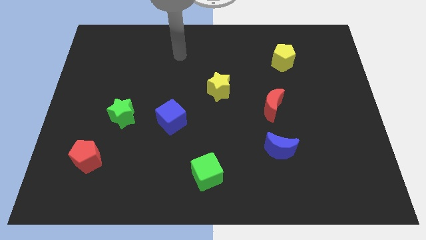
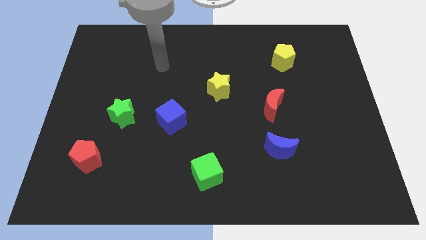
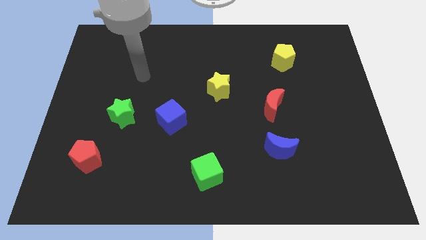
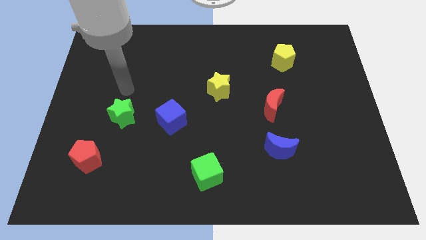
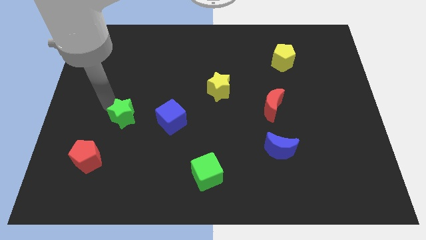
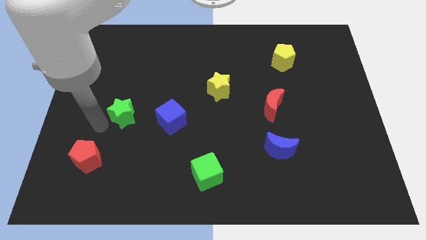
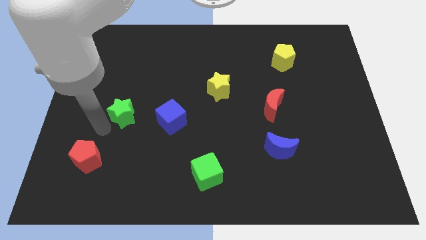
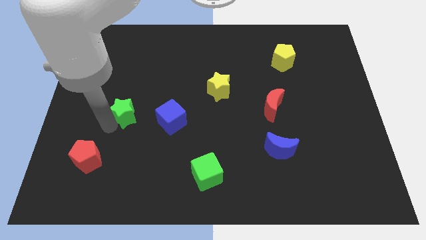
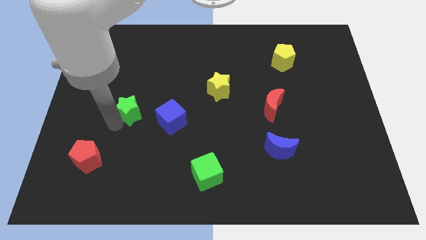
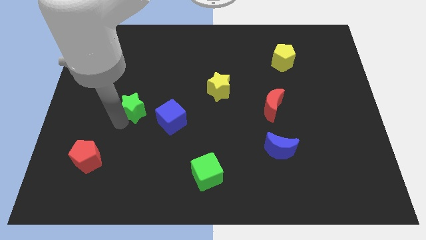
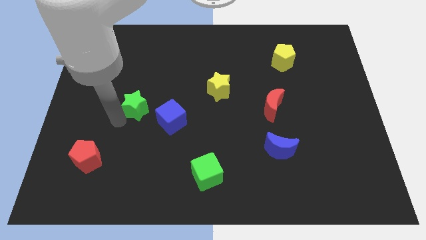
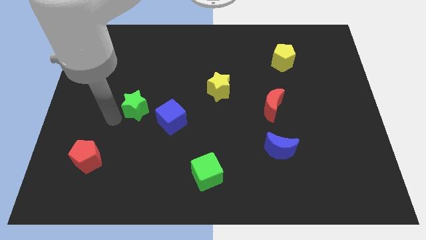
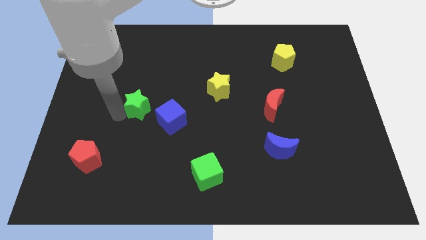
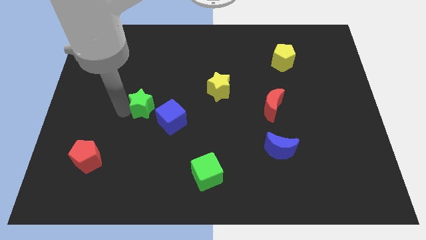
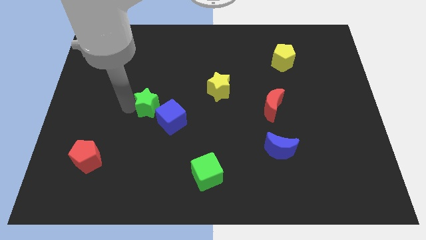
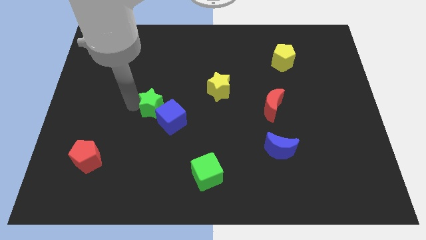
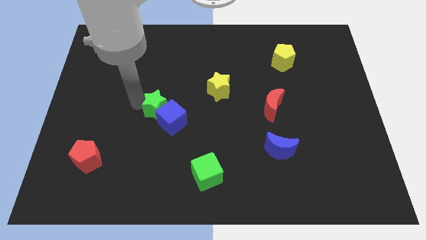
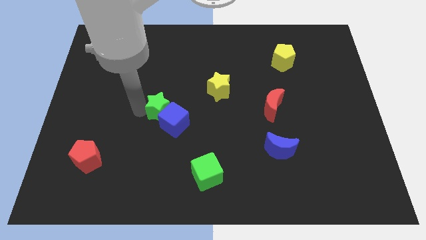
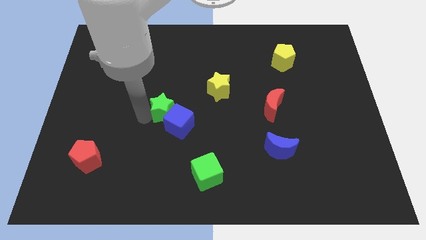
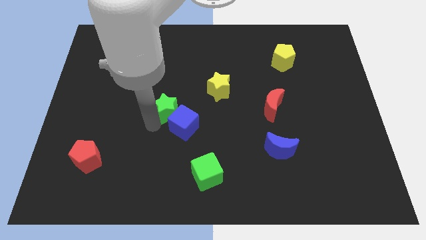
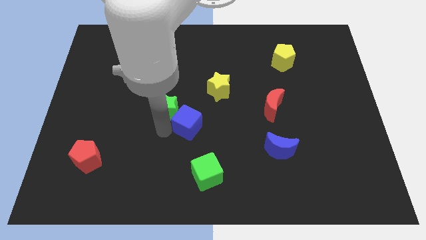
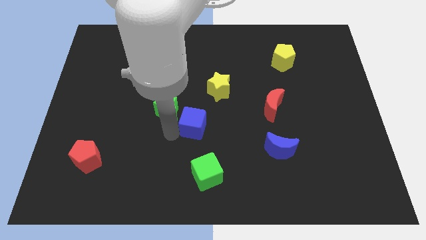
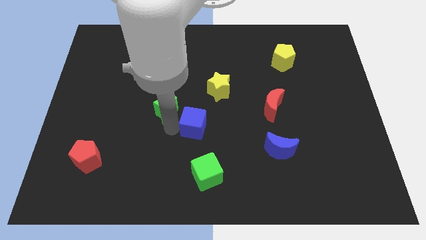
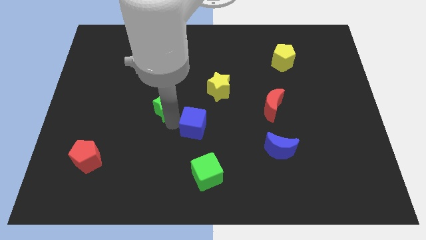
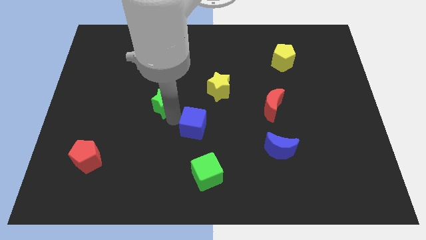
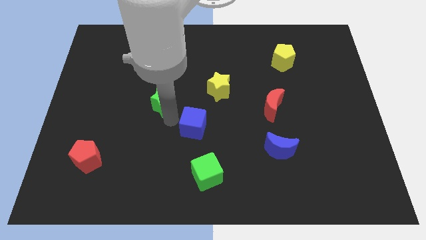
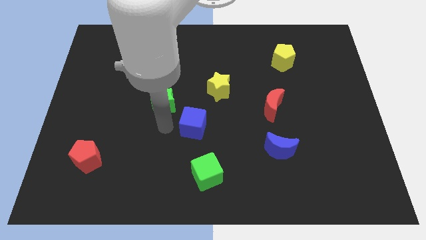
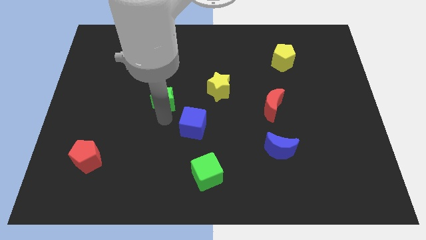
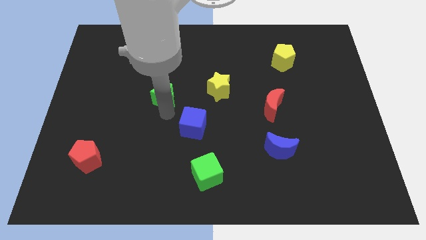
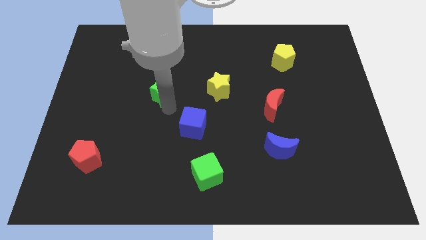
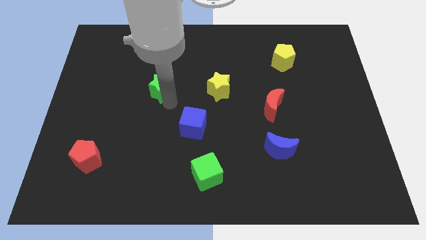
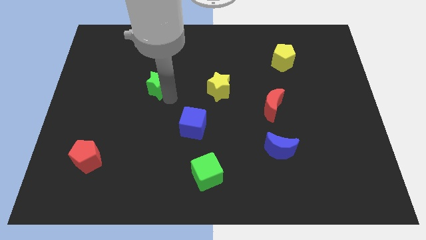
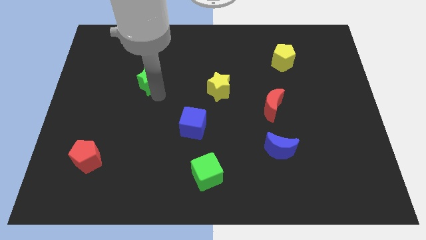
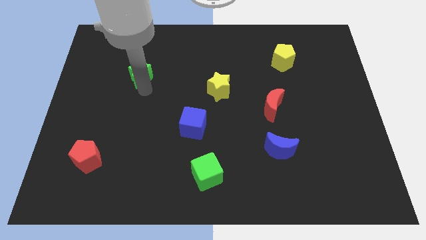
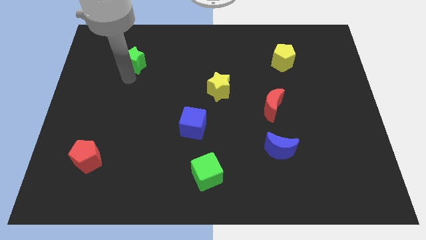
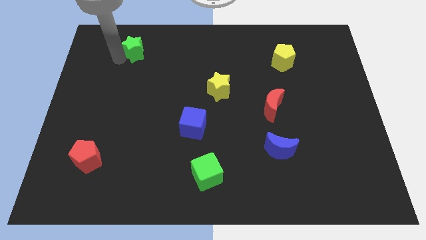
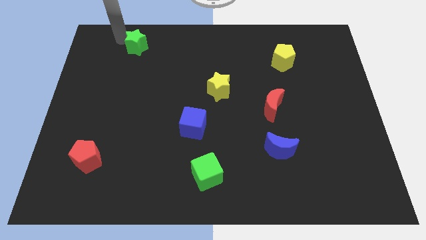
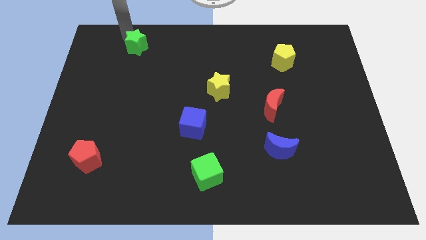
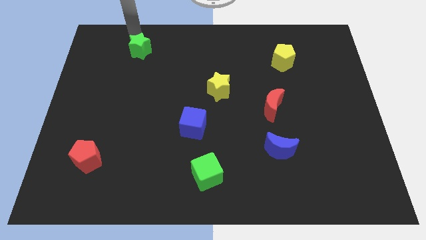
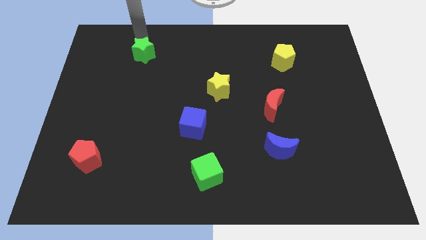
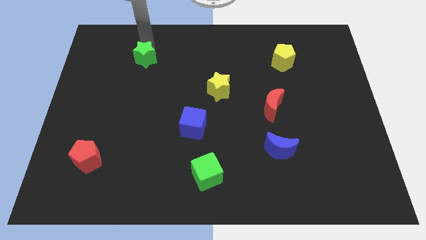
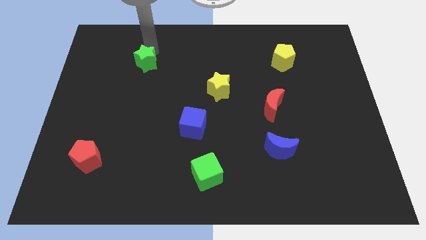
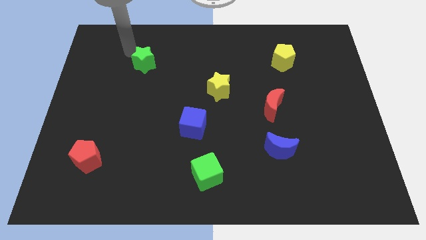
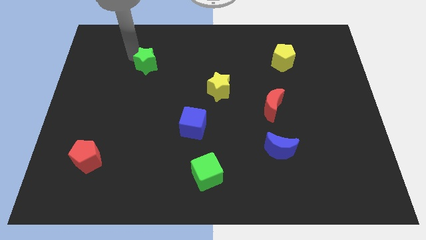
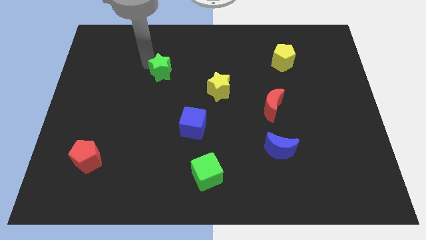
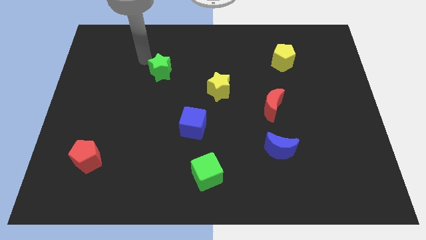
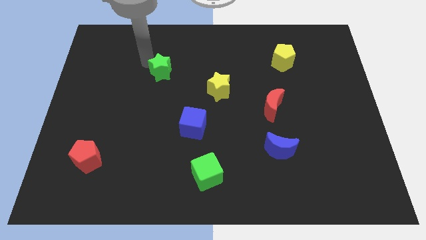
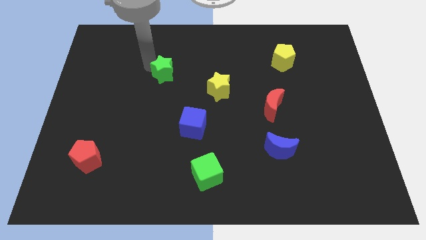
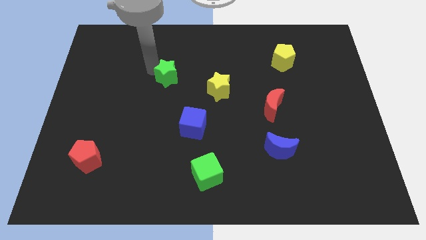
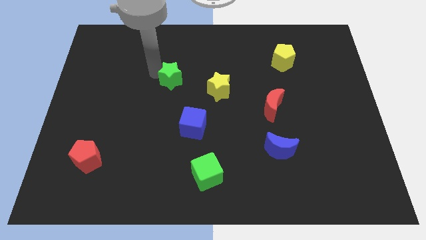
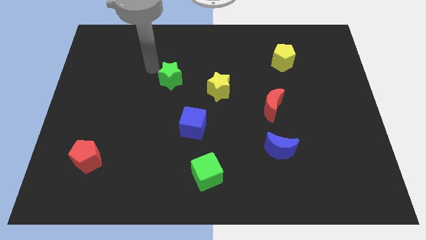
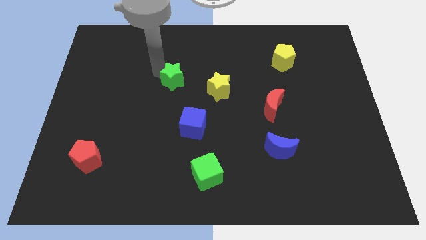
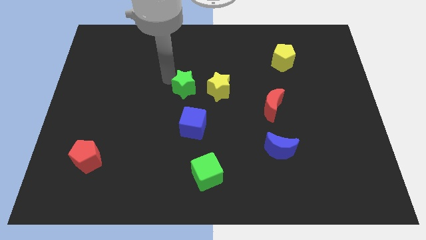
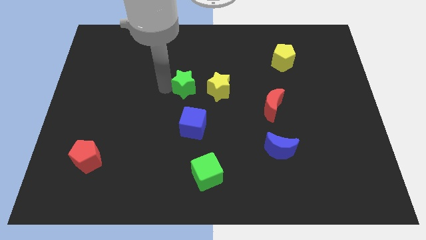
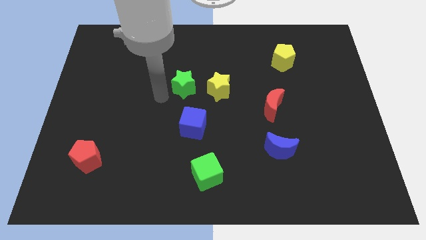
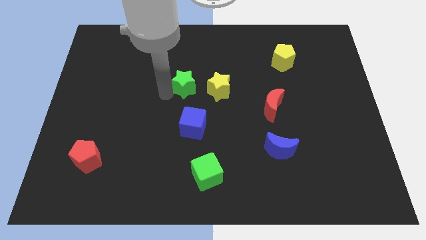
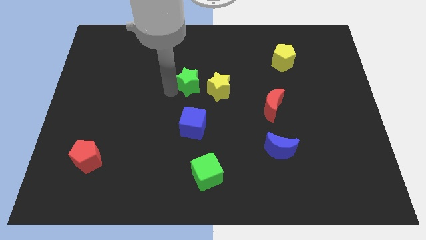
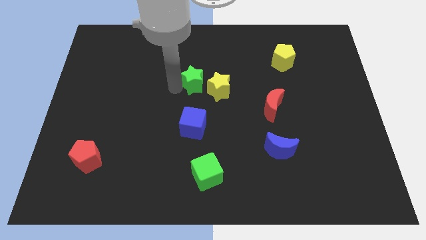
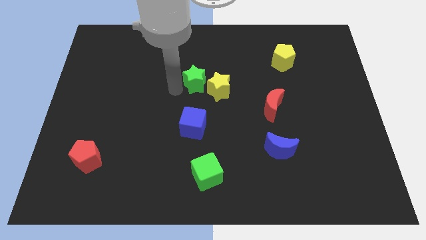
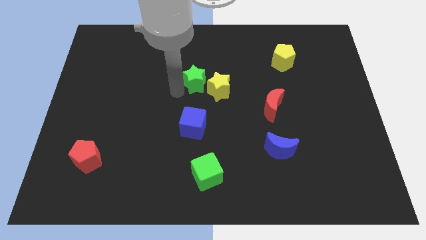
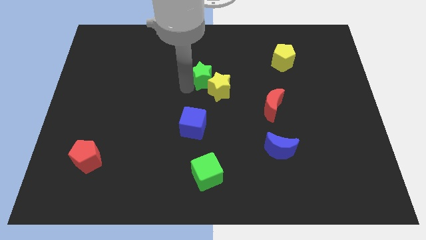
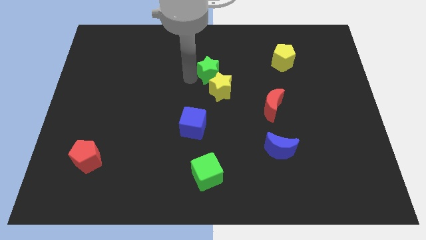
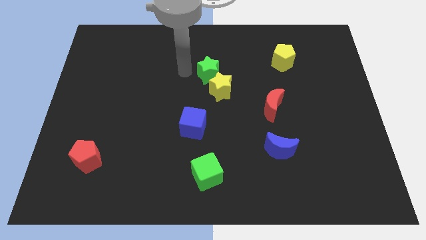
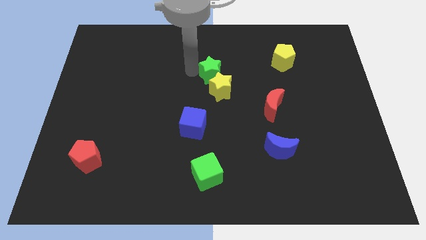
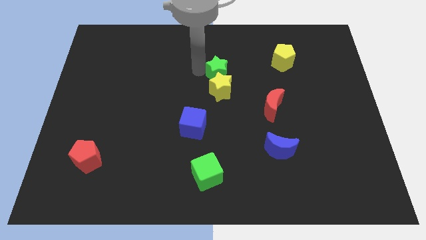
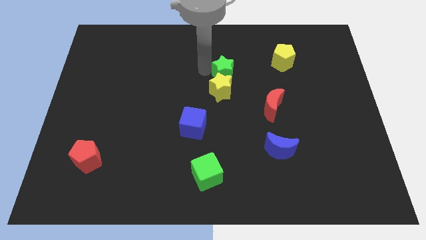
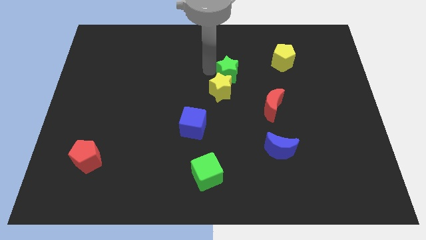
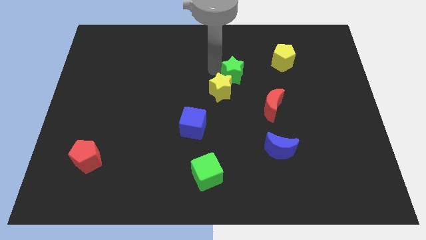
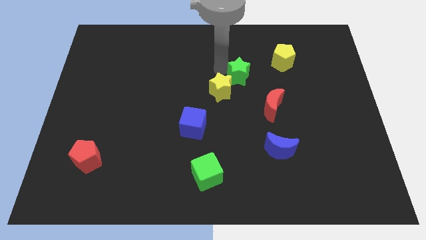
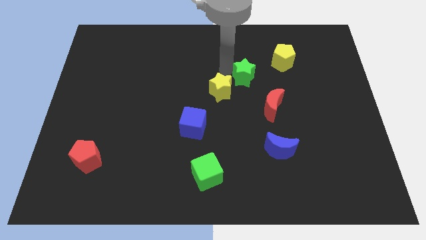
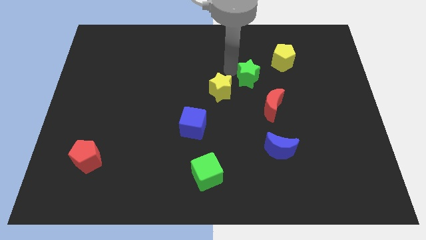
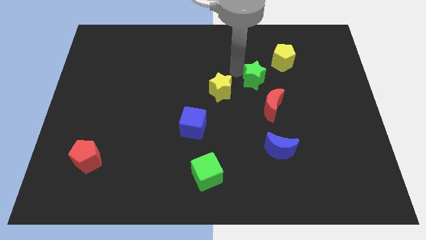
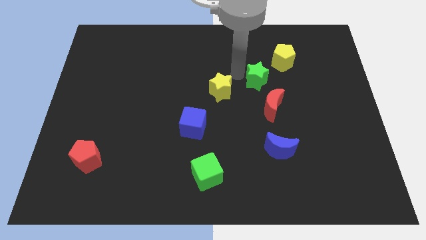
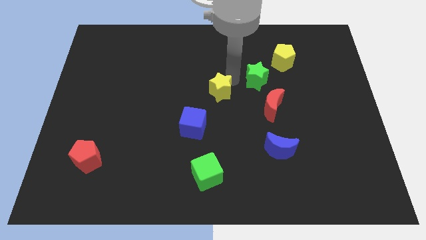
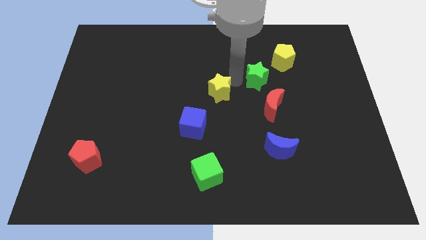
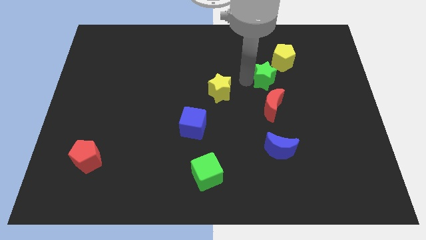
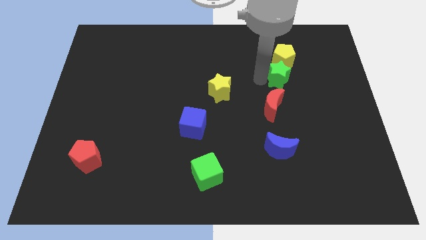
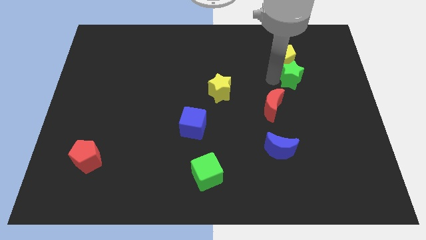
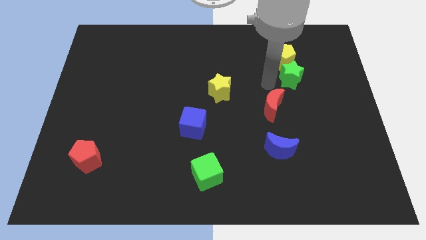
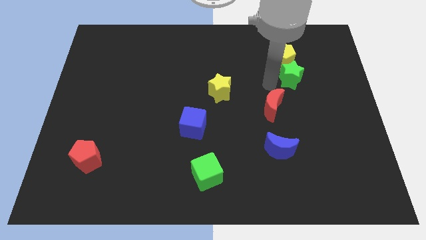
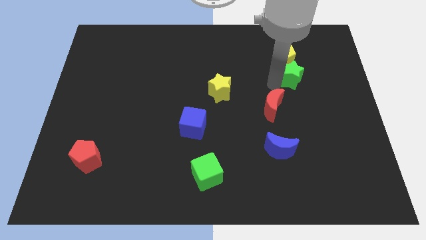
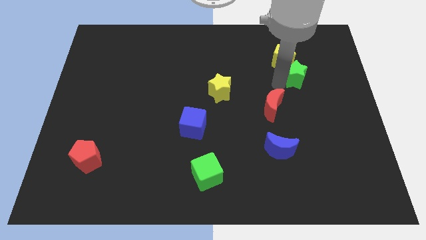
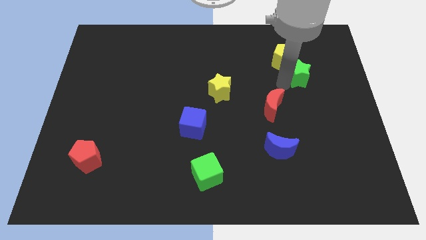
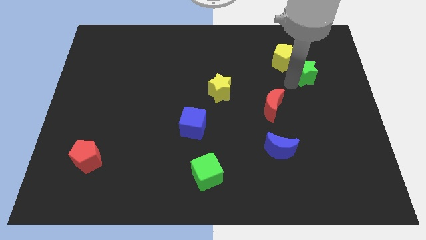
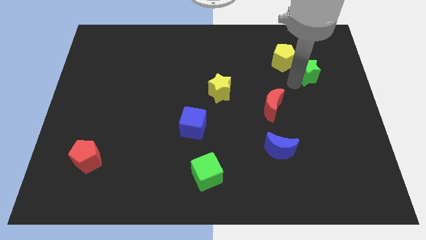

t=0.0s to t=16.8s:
move the green star right of the yellow pentagon
